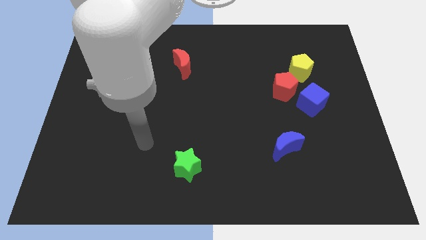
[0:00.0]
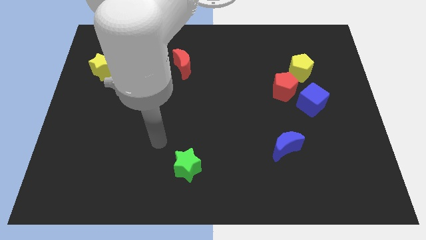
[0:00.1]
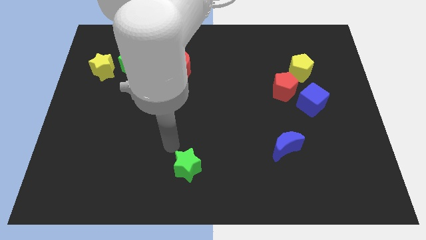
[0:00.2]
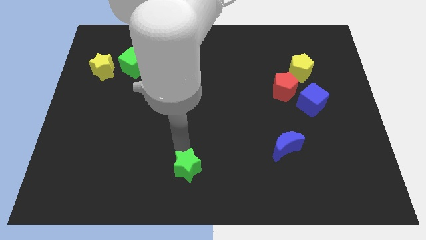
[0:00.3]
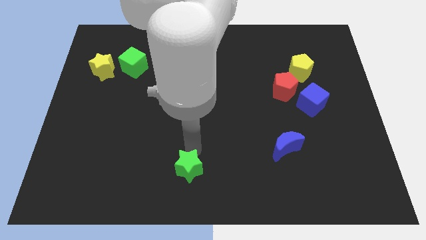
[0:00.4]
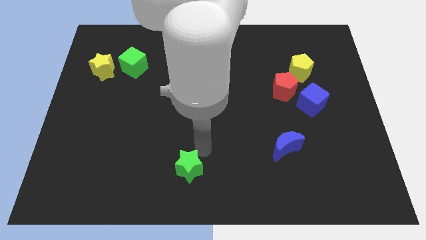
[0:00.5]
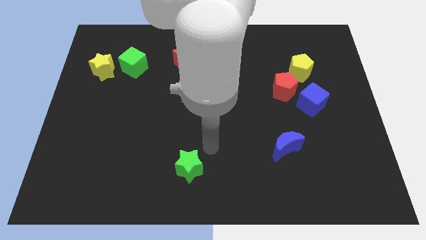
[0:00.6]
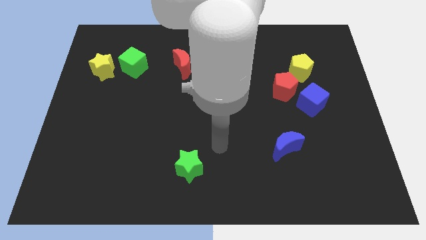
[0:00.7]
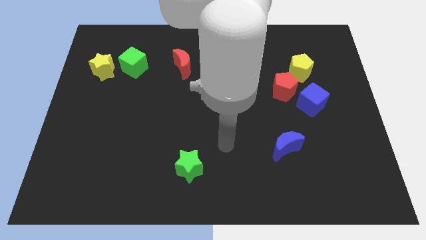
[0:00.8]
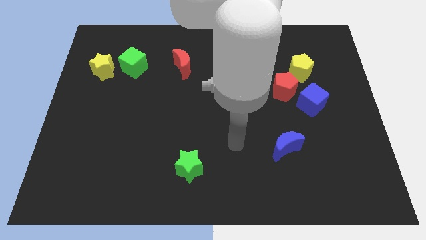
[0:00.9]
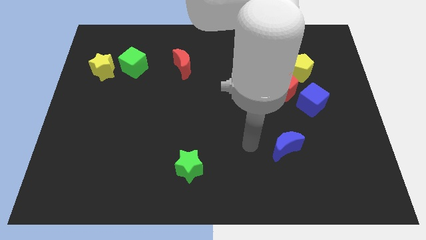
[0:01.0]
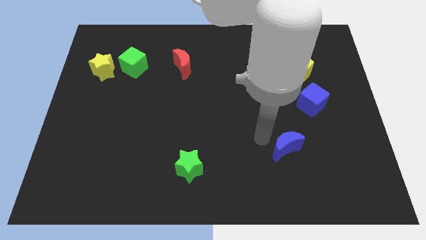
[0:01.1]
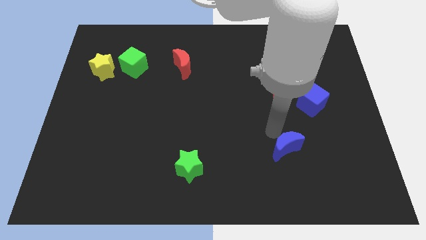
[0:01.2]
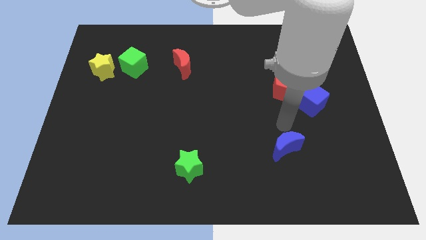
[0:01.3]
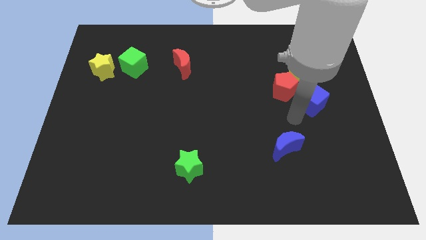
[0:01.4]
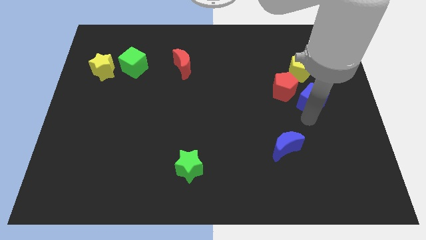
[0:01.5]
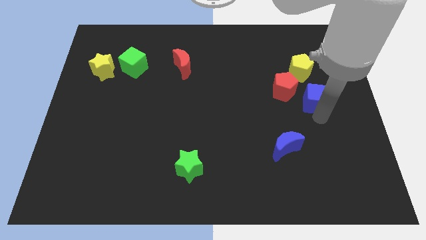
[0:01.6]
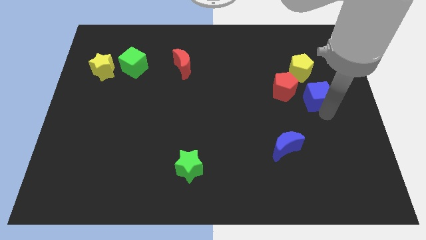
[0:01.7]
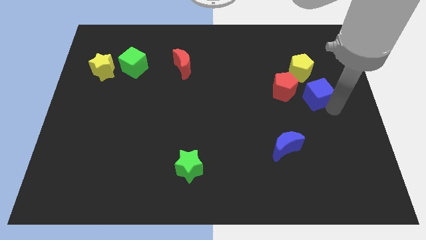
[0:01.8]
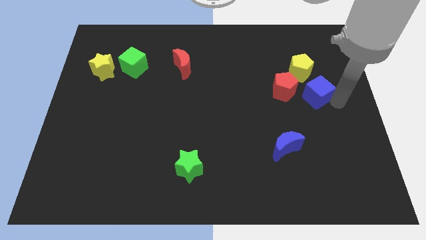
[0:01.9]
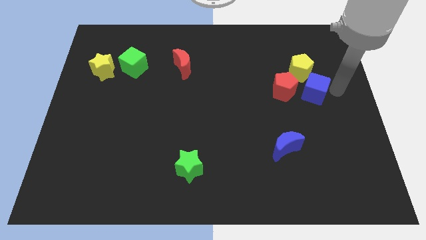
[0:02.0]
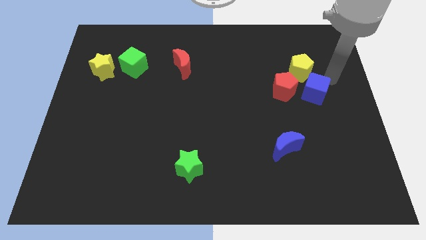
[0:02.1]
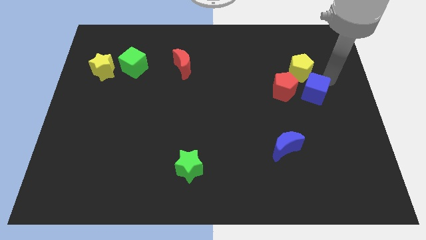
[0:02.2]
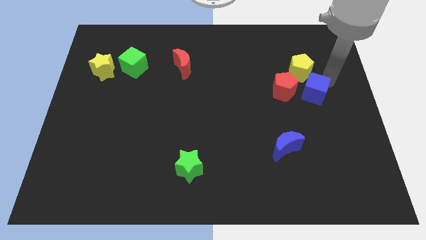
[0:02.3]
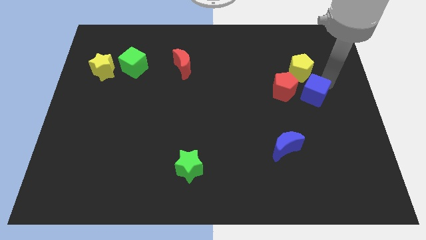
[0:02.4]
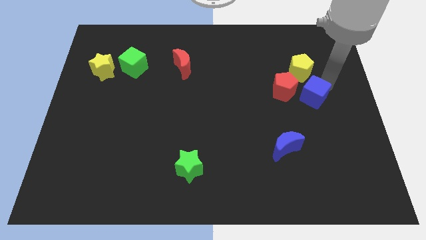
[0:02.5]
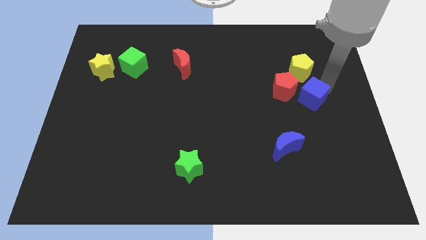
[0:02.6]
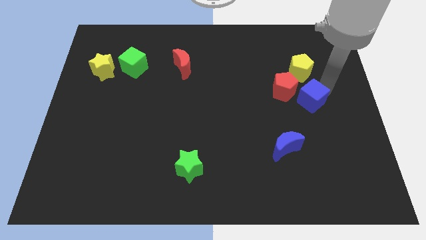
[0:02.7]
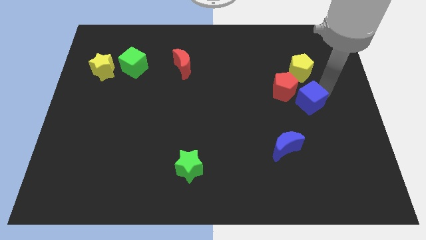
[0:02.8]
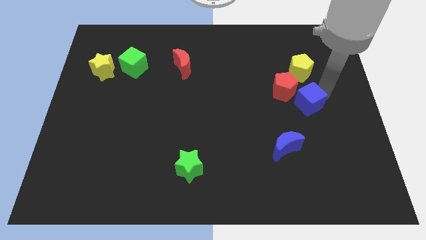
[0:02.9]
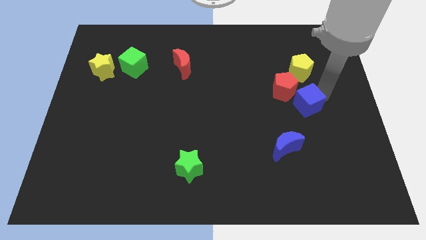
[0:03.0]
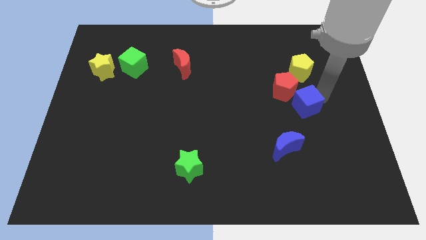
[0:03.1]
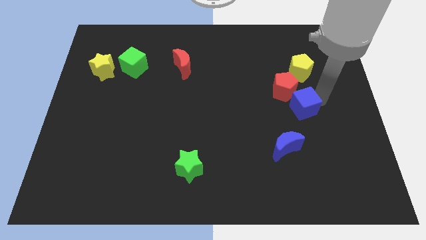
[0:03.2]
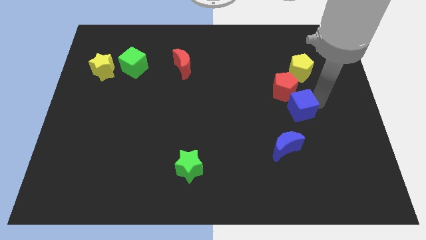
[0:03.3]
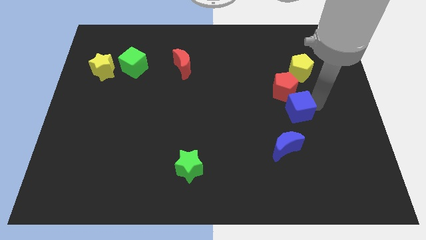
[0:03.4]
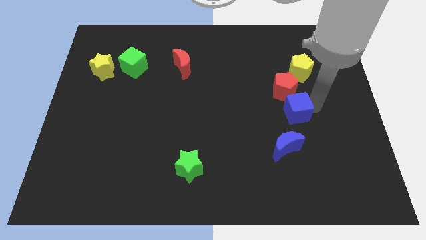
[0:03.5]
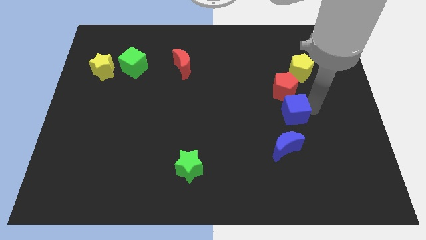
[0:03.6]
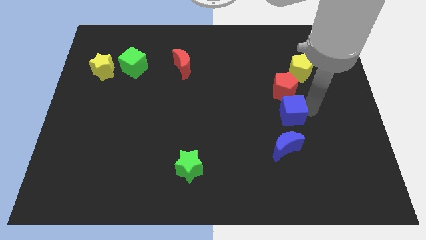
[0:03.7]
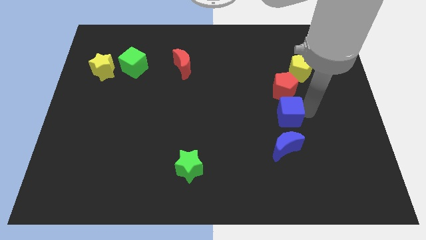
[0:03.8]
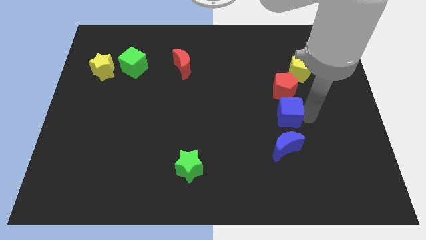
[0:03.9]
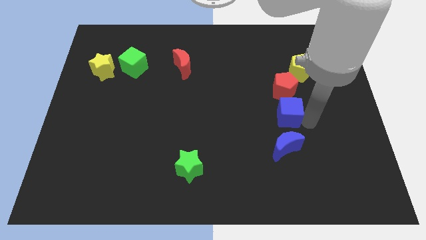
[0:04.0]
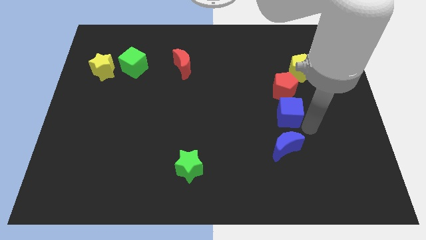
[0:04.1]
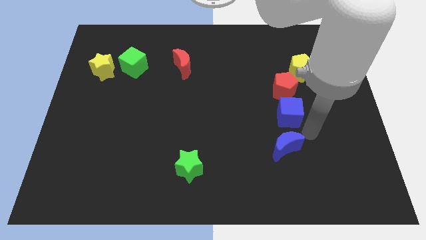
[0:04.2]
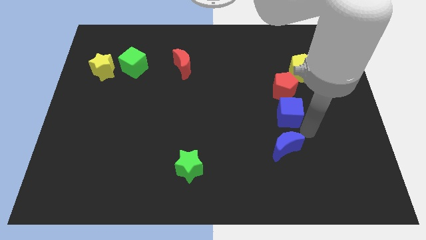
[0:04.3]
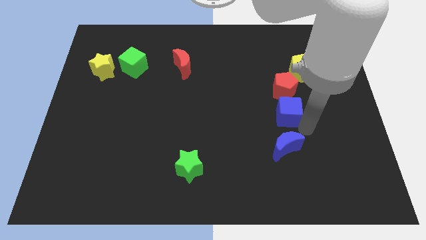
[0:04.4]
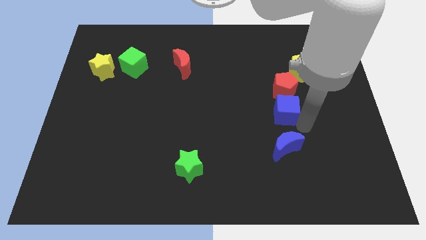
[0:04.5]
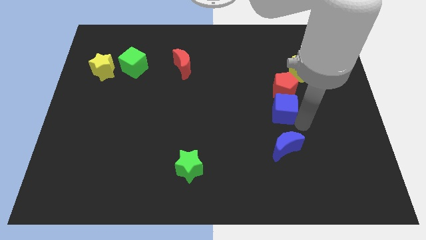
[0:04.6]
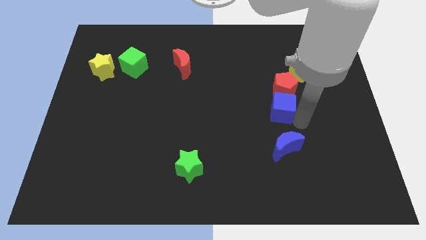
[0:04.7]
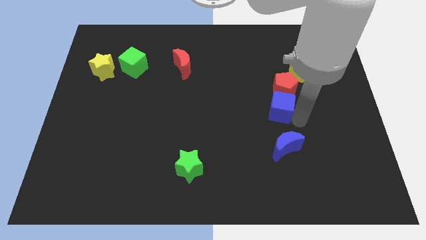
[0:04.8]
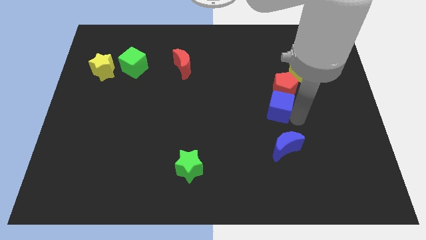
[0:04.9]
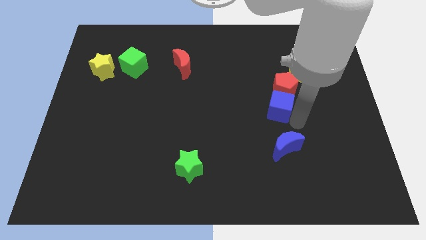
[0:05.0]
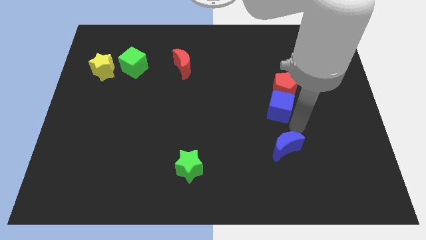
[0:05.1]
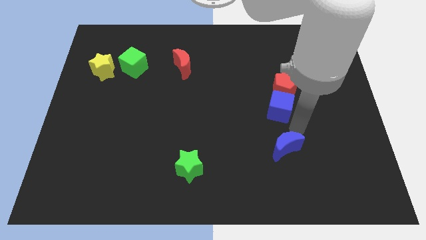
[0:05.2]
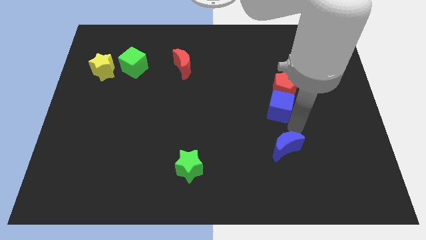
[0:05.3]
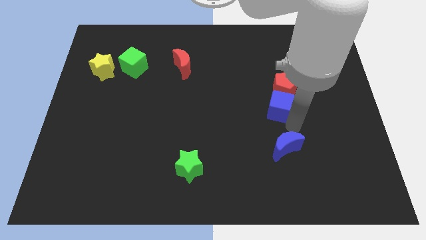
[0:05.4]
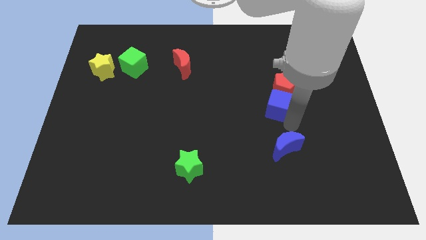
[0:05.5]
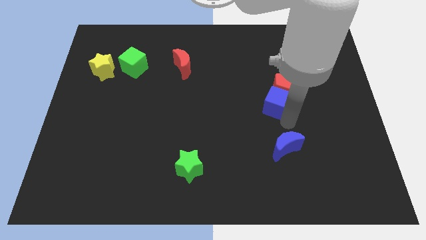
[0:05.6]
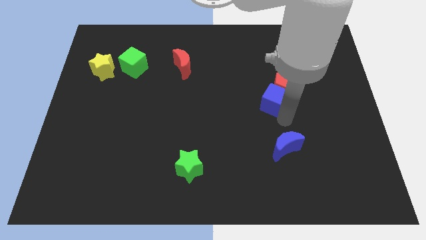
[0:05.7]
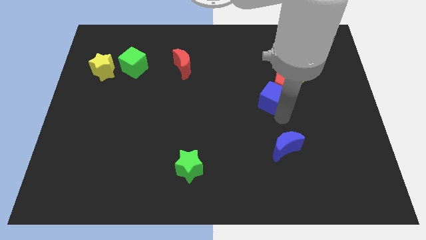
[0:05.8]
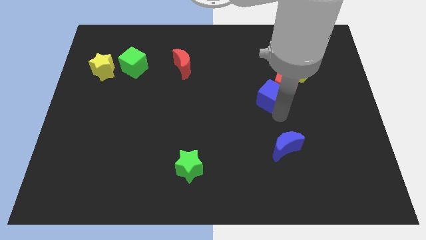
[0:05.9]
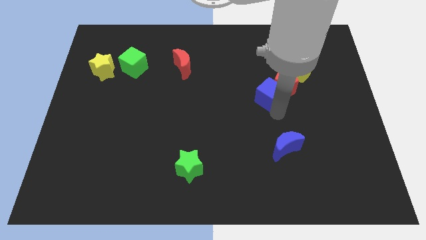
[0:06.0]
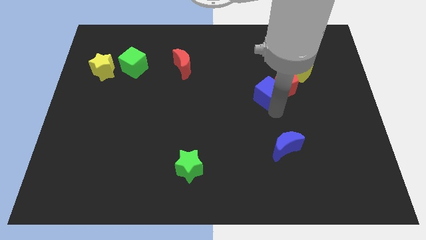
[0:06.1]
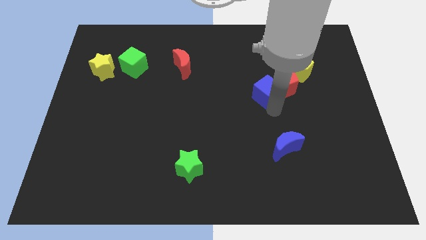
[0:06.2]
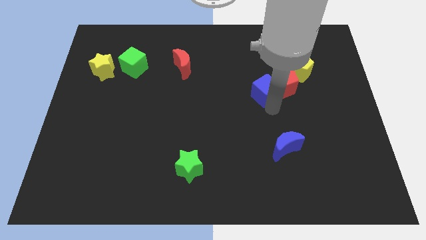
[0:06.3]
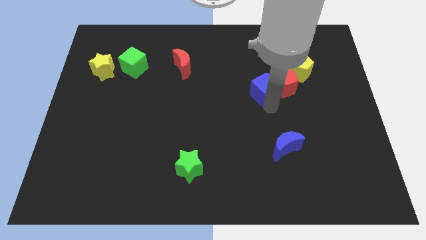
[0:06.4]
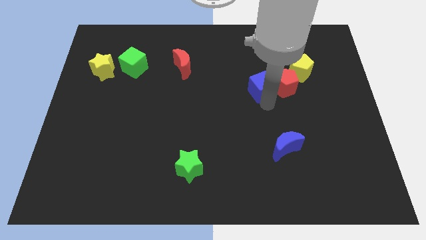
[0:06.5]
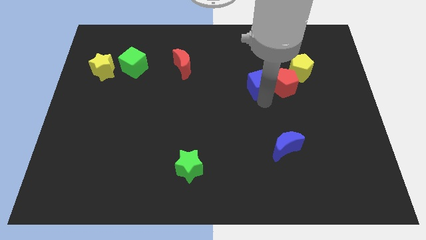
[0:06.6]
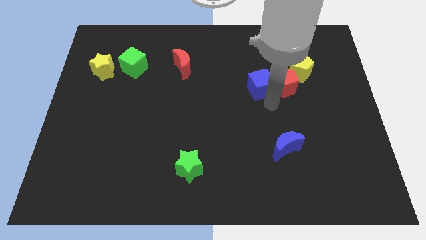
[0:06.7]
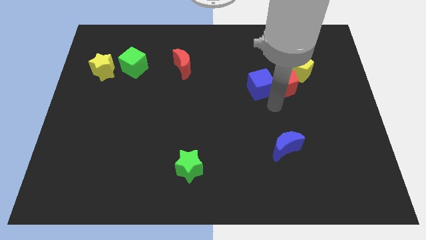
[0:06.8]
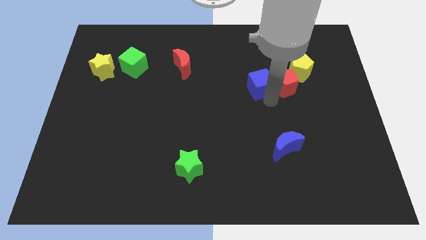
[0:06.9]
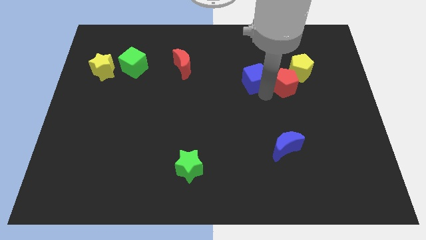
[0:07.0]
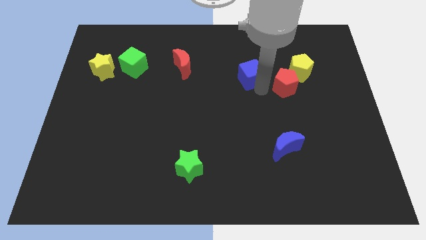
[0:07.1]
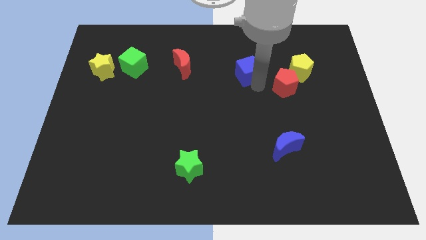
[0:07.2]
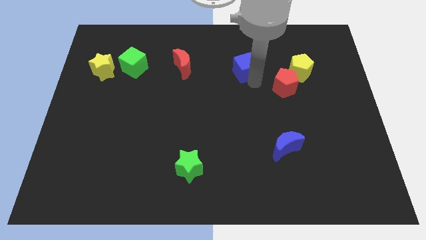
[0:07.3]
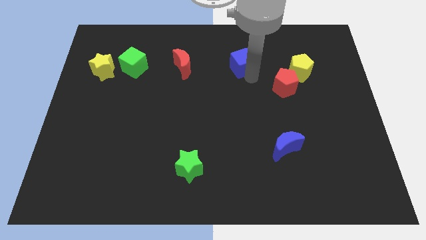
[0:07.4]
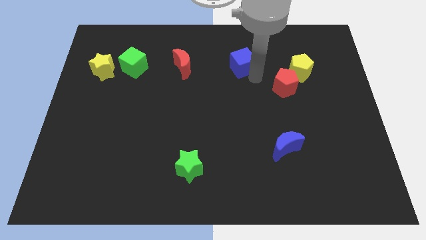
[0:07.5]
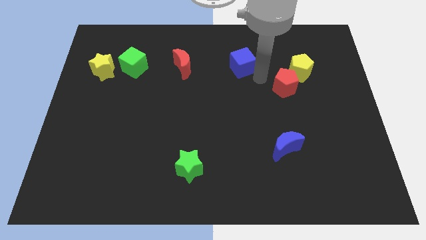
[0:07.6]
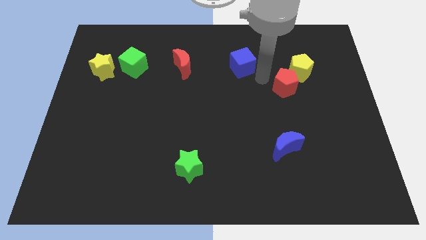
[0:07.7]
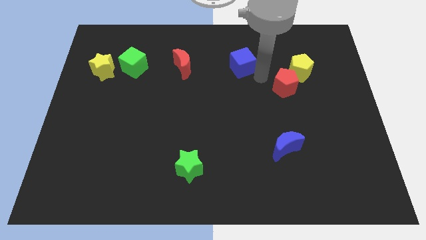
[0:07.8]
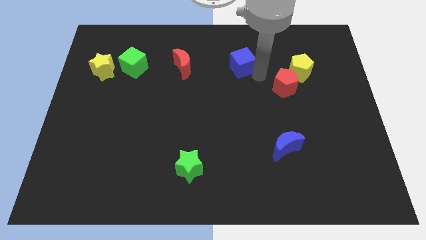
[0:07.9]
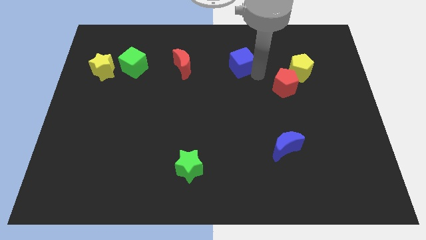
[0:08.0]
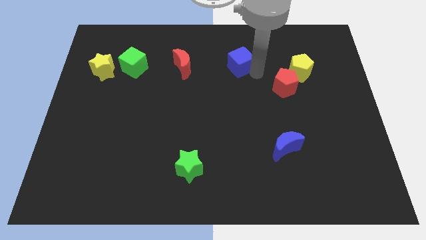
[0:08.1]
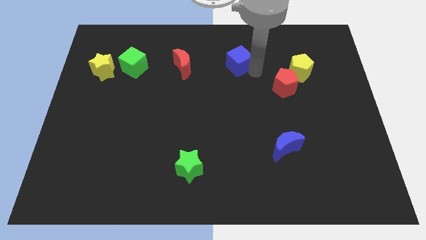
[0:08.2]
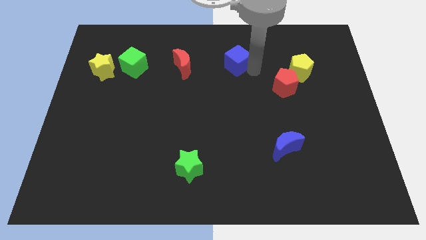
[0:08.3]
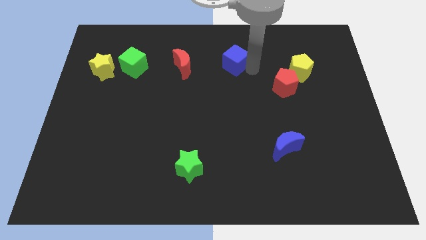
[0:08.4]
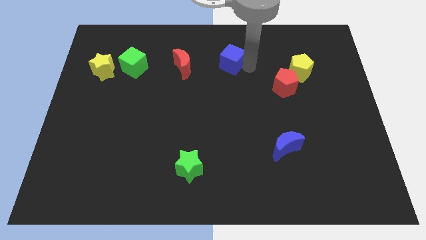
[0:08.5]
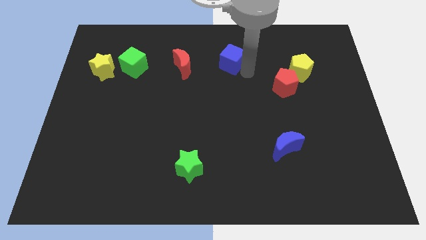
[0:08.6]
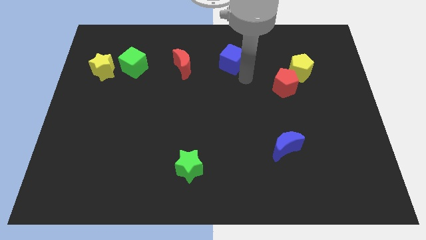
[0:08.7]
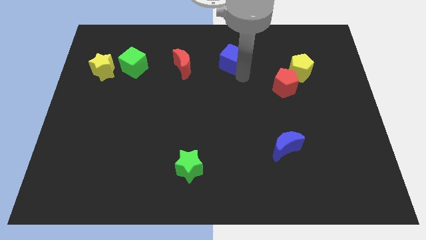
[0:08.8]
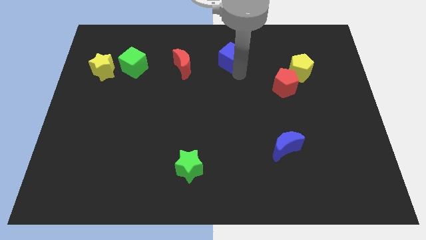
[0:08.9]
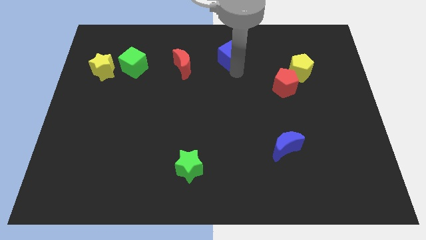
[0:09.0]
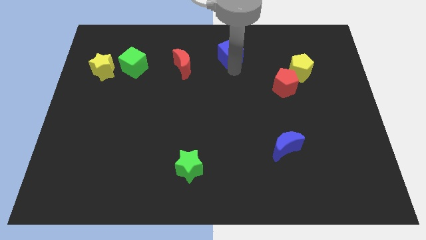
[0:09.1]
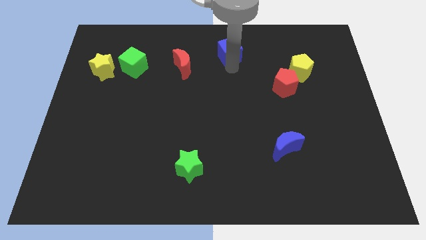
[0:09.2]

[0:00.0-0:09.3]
push the blue cube to the top side
